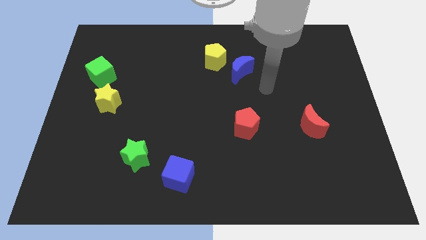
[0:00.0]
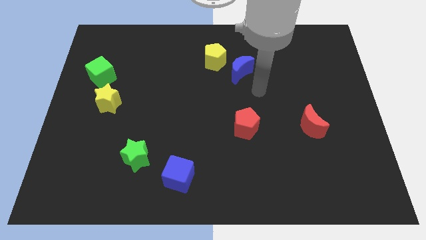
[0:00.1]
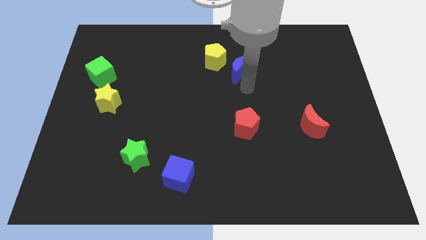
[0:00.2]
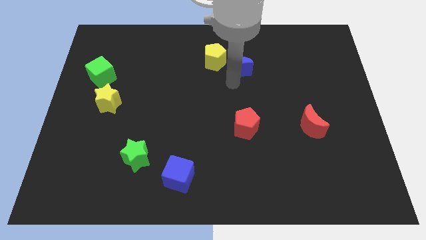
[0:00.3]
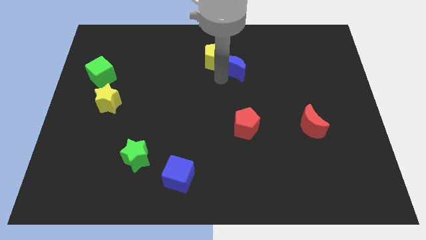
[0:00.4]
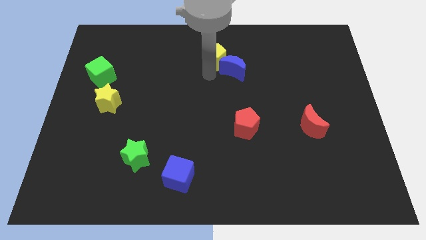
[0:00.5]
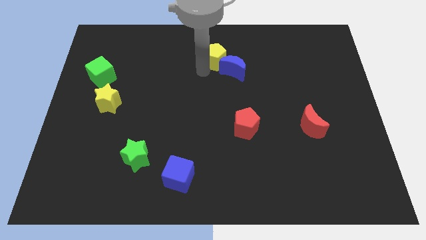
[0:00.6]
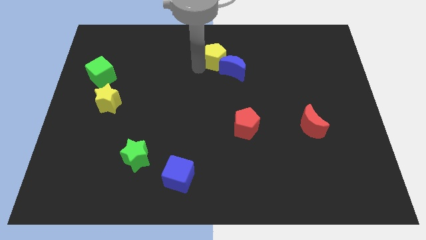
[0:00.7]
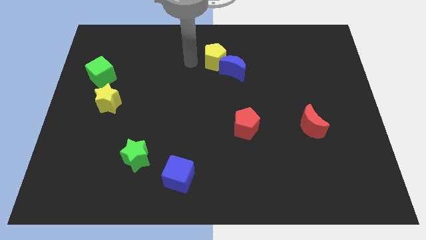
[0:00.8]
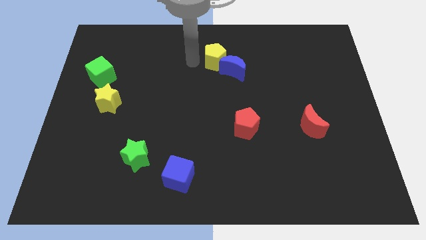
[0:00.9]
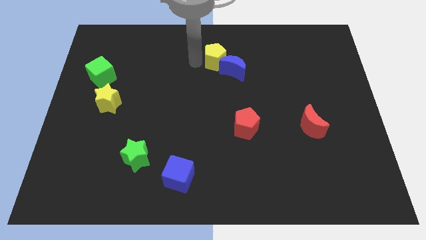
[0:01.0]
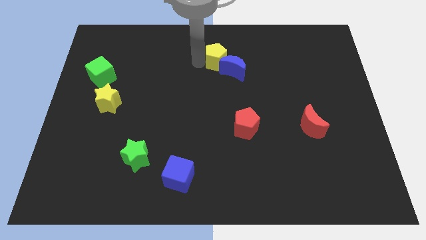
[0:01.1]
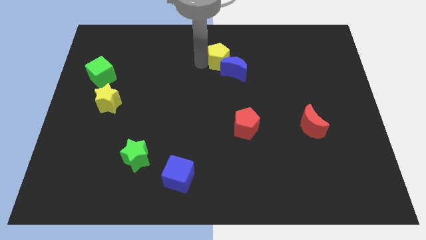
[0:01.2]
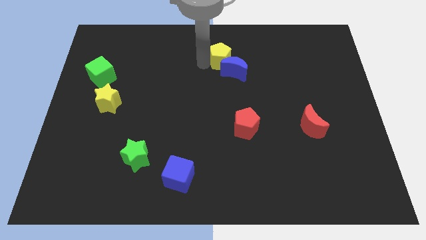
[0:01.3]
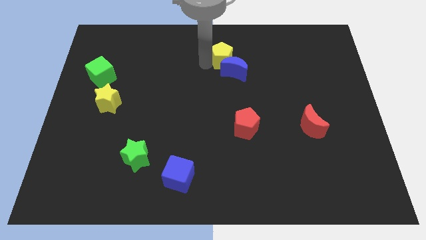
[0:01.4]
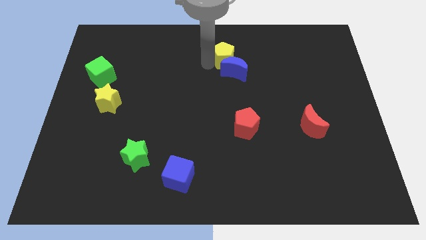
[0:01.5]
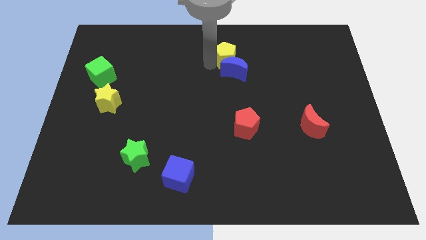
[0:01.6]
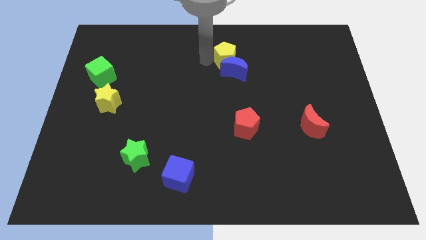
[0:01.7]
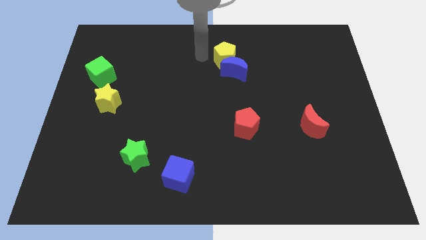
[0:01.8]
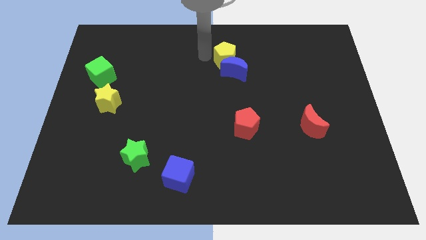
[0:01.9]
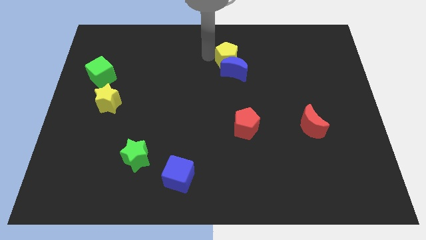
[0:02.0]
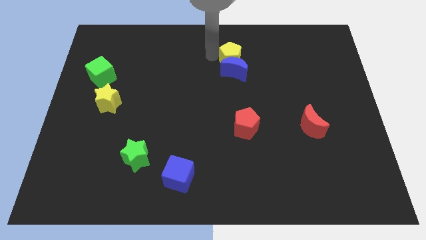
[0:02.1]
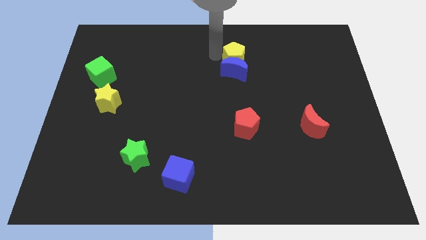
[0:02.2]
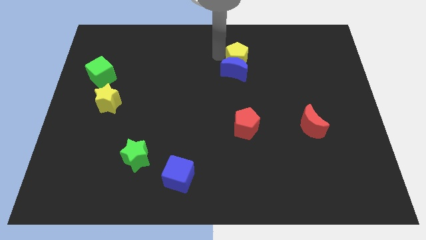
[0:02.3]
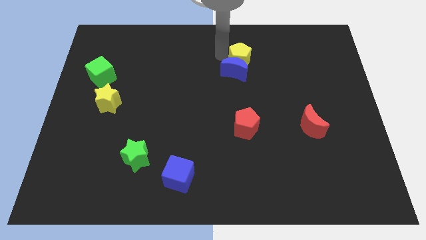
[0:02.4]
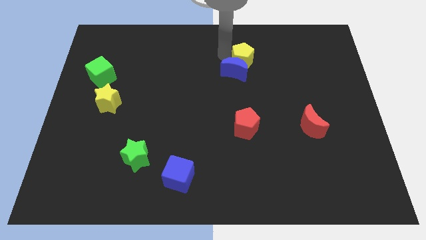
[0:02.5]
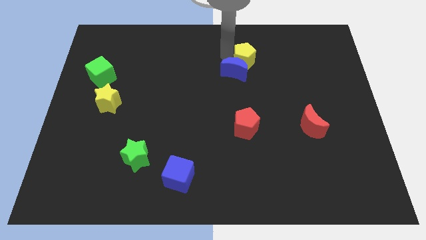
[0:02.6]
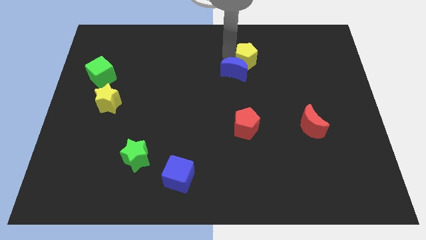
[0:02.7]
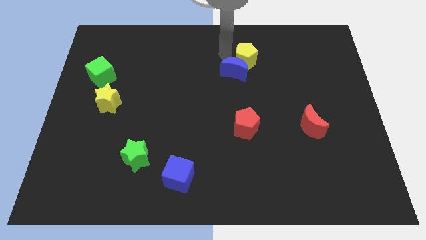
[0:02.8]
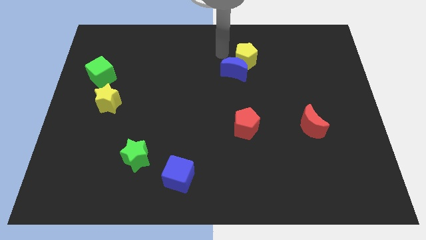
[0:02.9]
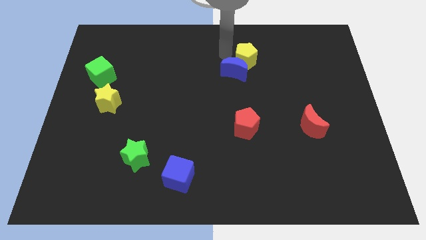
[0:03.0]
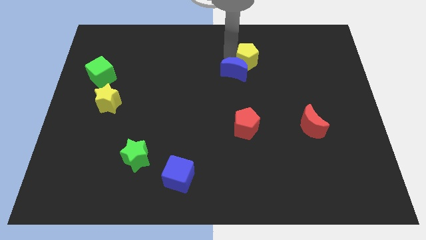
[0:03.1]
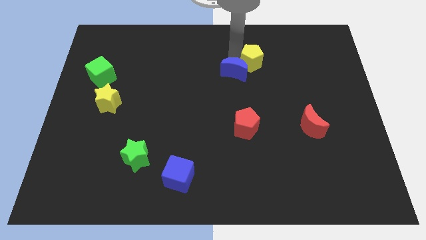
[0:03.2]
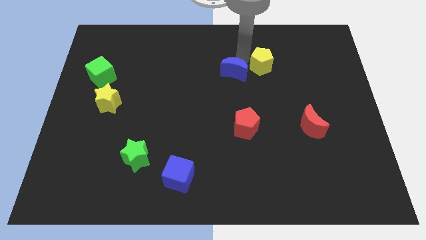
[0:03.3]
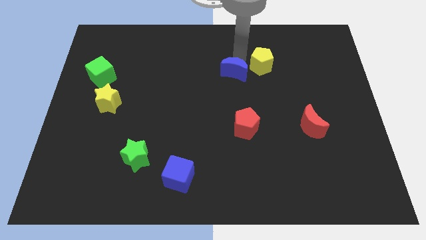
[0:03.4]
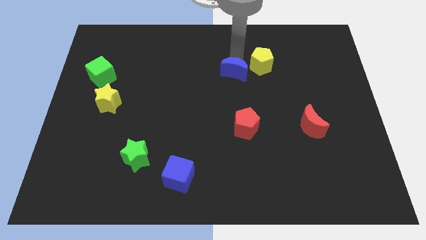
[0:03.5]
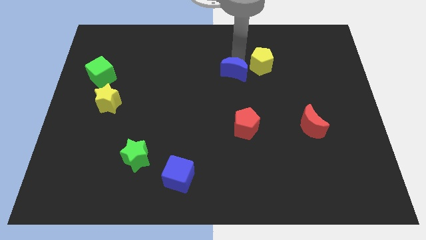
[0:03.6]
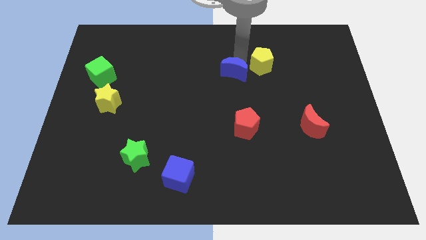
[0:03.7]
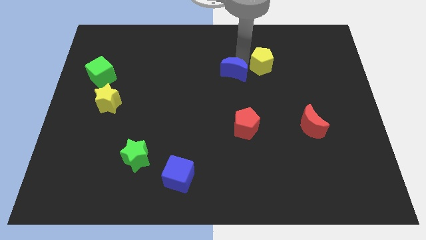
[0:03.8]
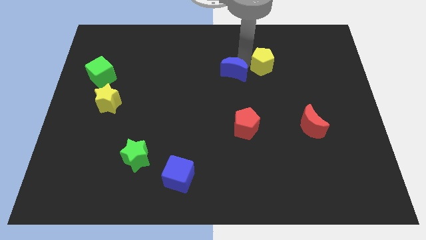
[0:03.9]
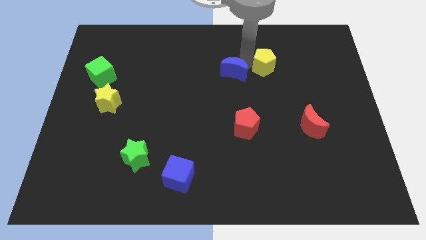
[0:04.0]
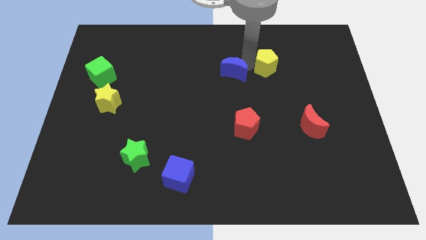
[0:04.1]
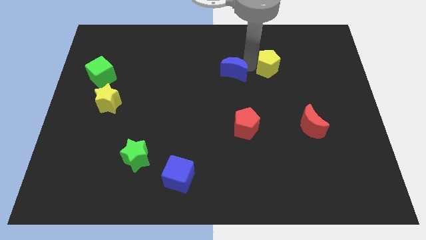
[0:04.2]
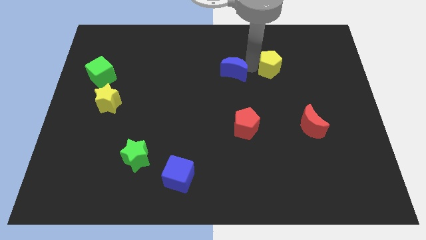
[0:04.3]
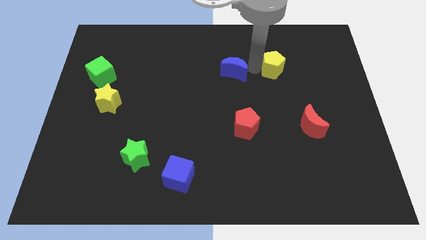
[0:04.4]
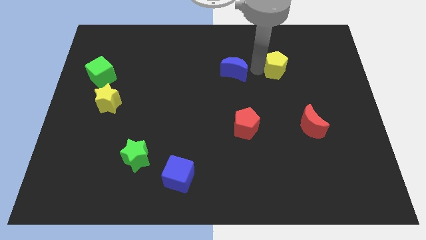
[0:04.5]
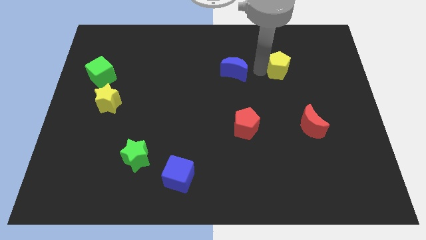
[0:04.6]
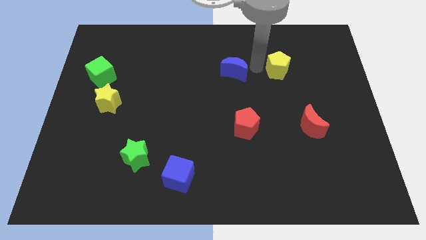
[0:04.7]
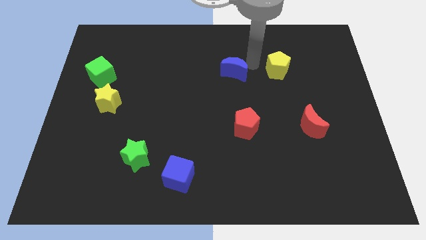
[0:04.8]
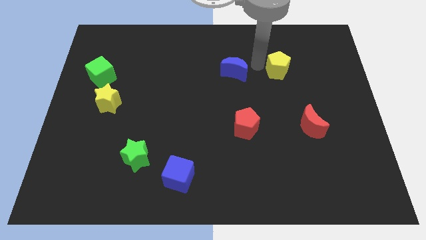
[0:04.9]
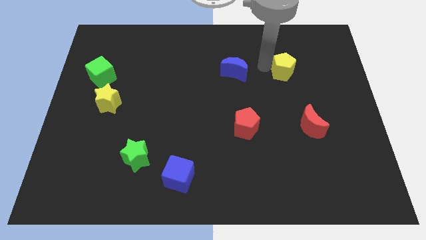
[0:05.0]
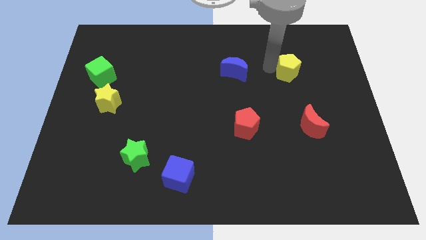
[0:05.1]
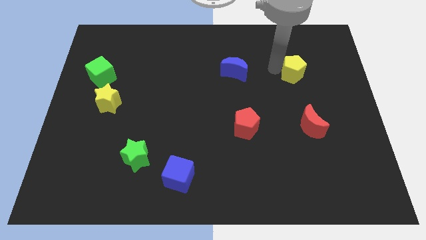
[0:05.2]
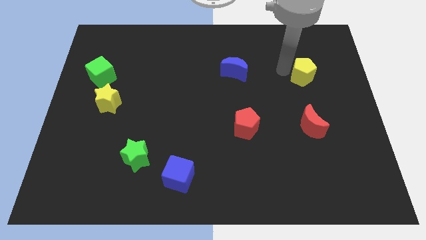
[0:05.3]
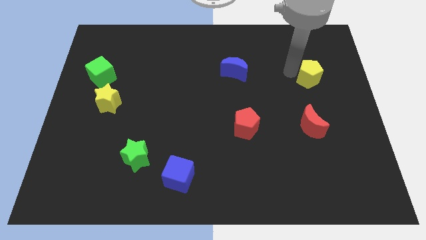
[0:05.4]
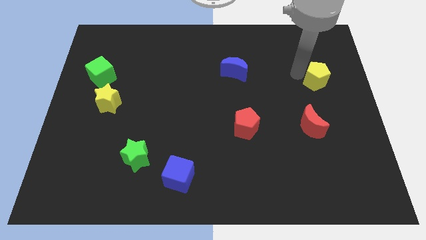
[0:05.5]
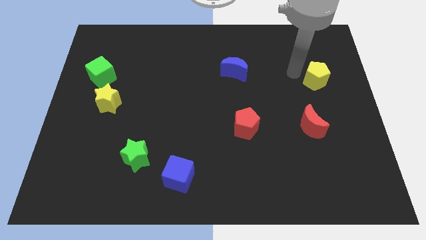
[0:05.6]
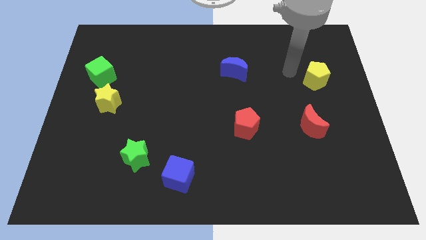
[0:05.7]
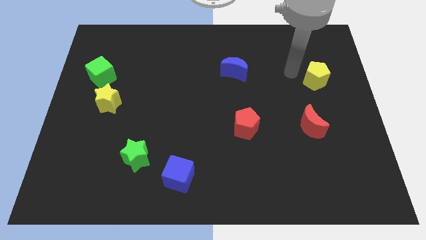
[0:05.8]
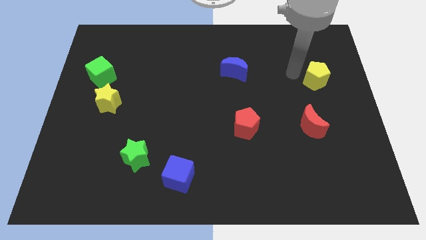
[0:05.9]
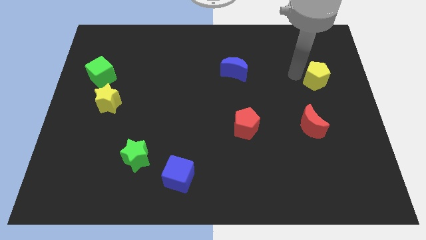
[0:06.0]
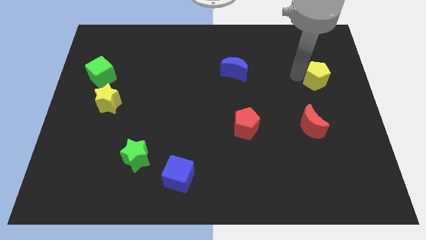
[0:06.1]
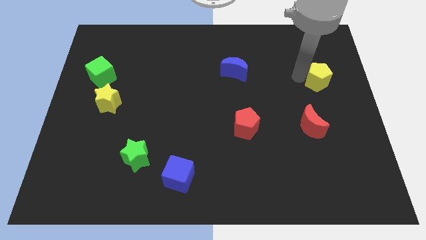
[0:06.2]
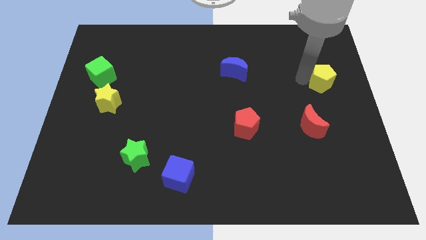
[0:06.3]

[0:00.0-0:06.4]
push the yellow pentagon to the center right

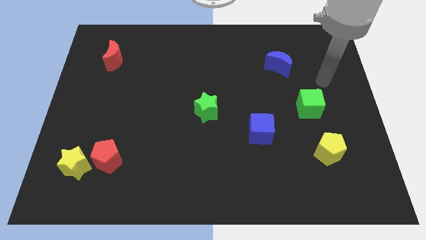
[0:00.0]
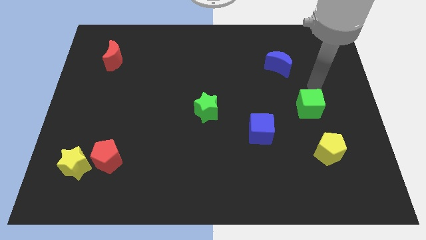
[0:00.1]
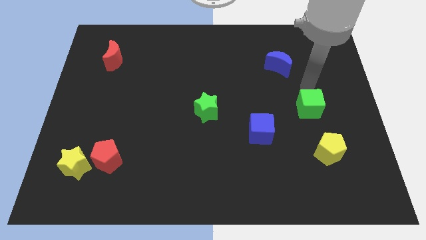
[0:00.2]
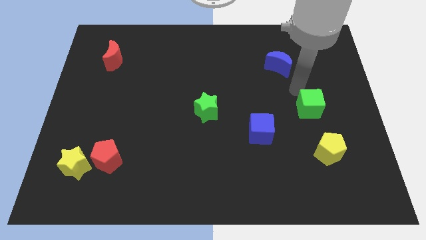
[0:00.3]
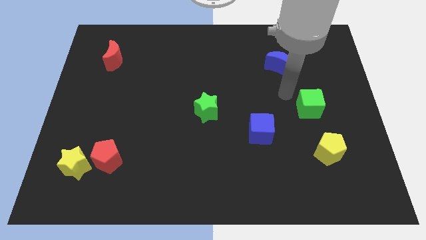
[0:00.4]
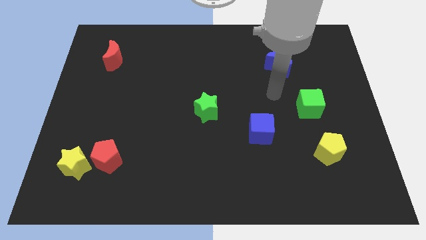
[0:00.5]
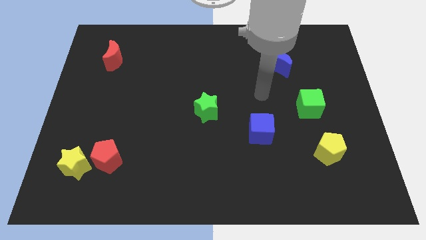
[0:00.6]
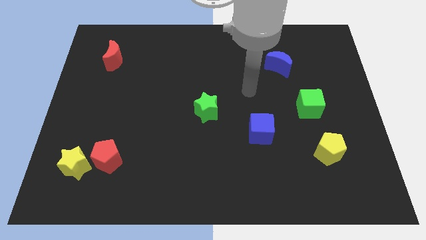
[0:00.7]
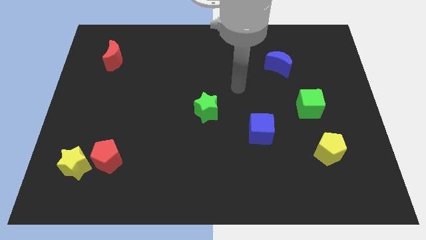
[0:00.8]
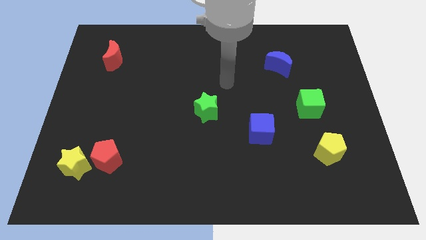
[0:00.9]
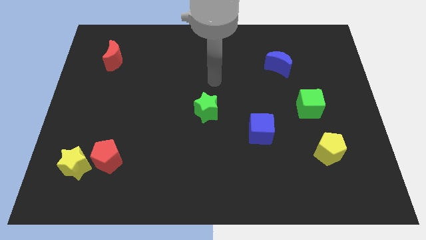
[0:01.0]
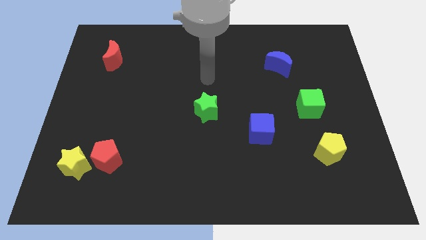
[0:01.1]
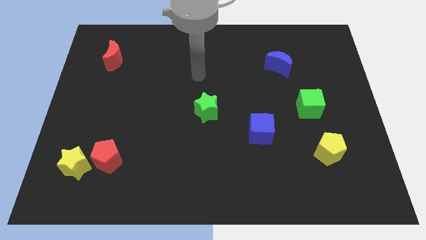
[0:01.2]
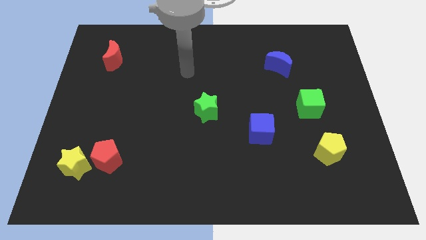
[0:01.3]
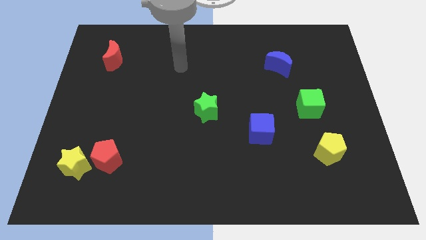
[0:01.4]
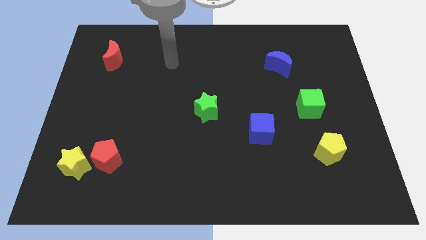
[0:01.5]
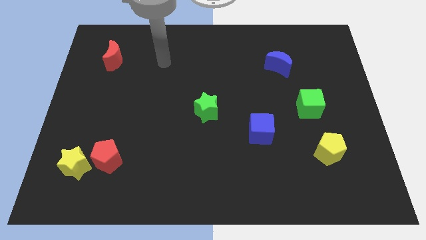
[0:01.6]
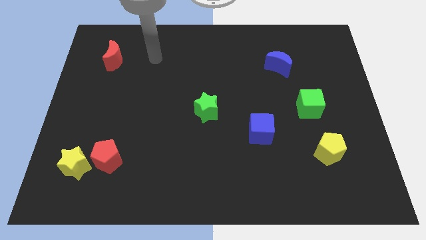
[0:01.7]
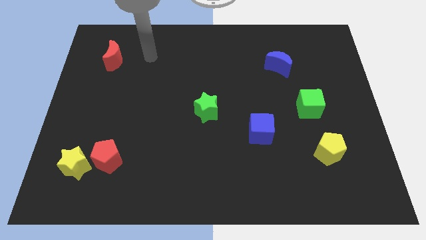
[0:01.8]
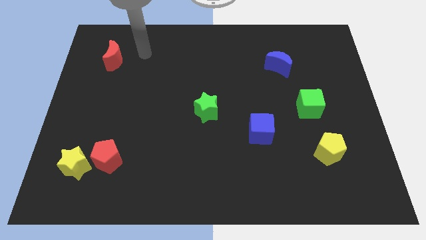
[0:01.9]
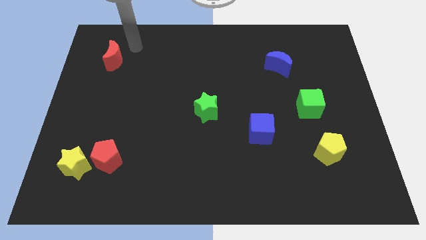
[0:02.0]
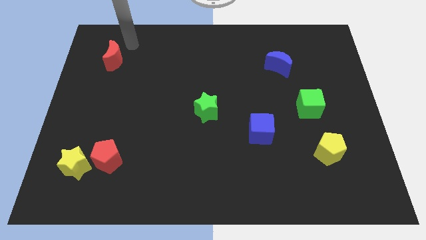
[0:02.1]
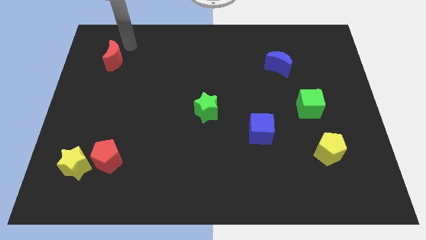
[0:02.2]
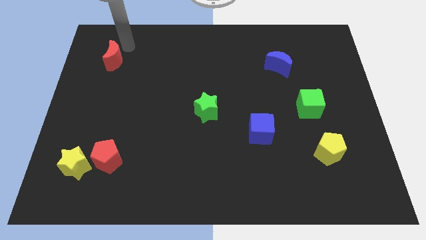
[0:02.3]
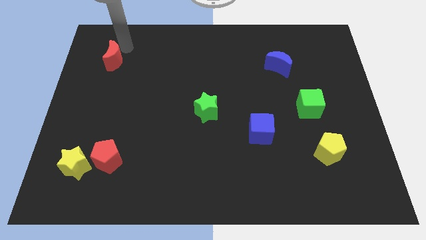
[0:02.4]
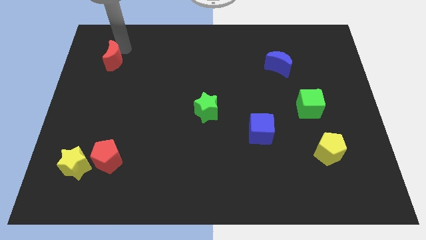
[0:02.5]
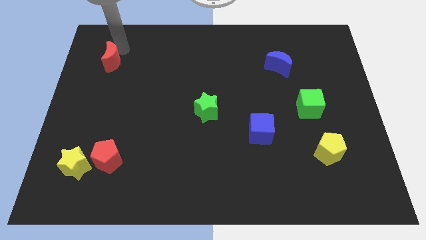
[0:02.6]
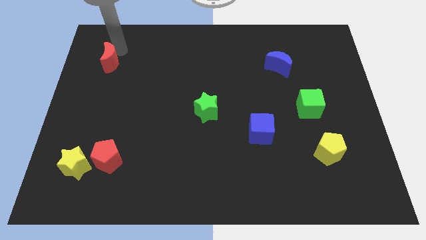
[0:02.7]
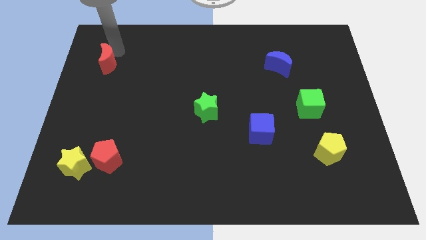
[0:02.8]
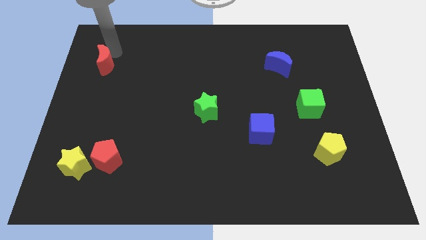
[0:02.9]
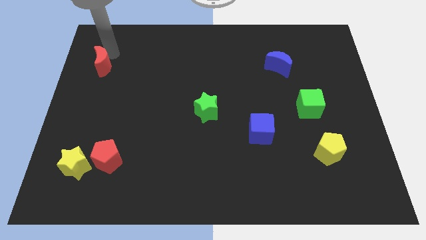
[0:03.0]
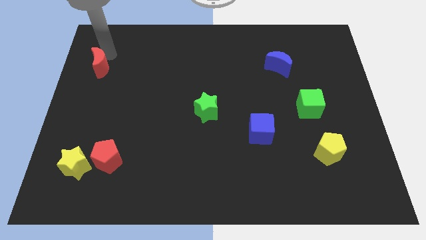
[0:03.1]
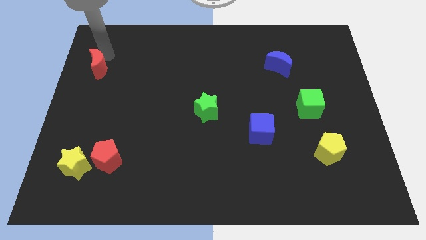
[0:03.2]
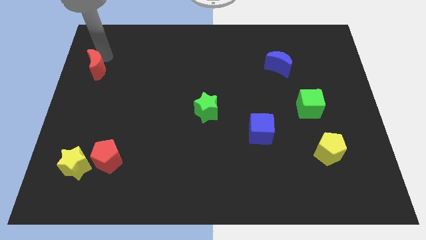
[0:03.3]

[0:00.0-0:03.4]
push the red moon to the left side
